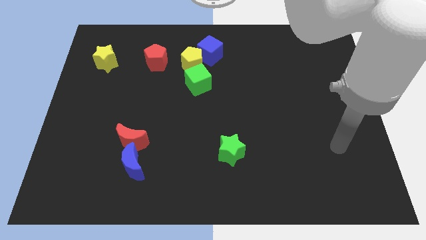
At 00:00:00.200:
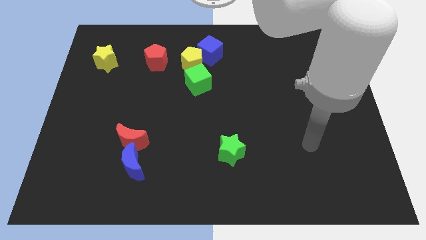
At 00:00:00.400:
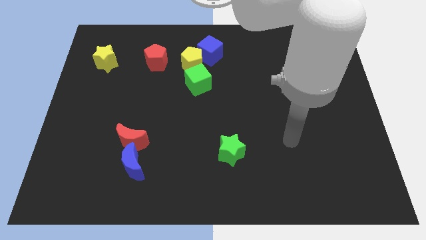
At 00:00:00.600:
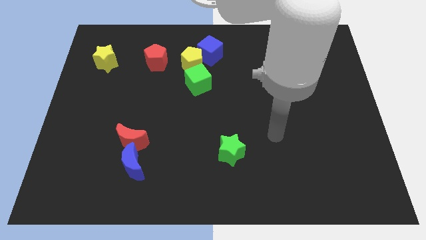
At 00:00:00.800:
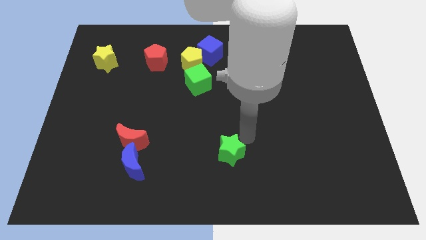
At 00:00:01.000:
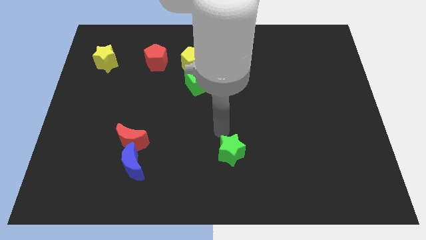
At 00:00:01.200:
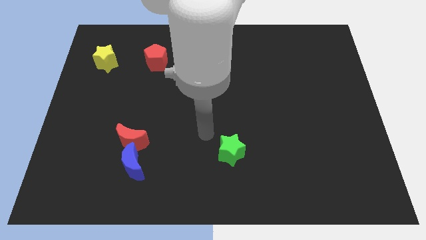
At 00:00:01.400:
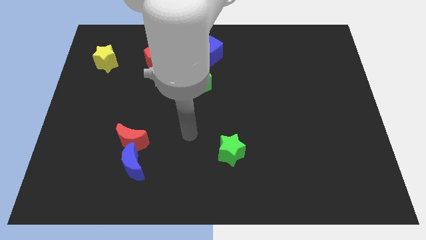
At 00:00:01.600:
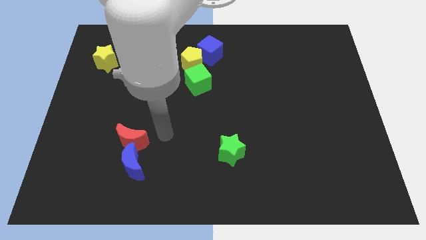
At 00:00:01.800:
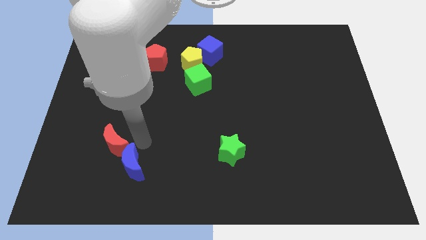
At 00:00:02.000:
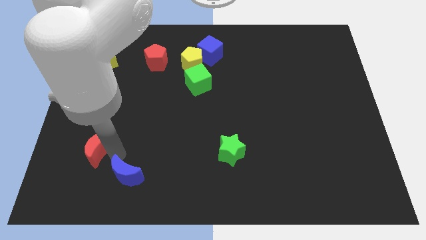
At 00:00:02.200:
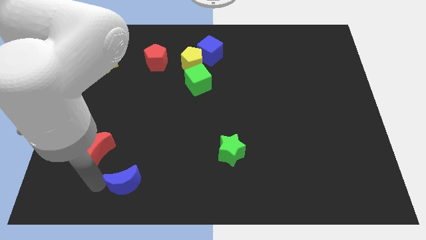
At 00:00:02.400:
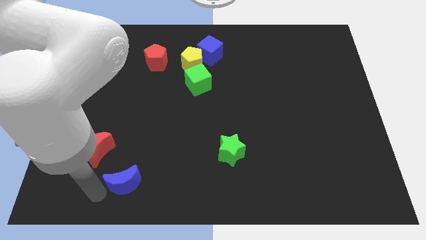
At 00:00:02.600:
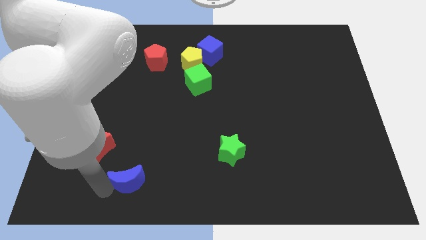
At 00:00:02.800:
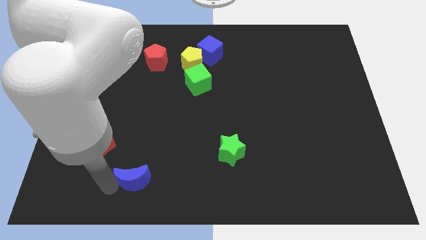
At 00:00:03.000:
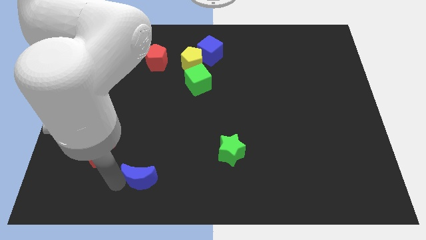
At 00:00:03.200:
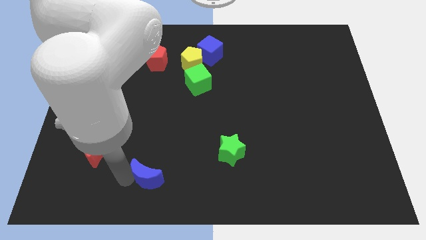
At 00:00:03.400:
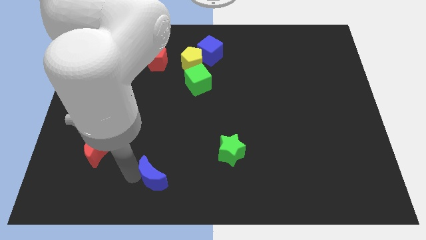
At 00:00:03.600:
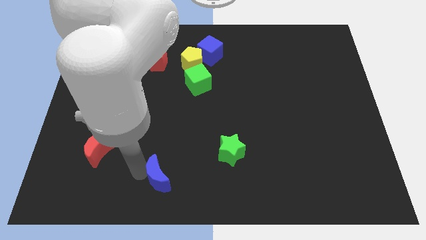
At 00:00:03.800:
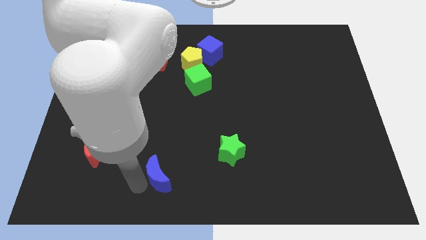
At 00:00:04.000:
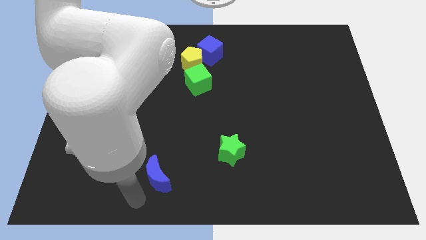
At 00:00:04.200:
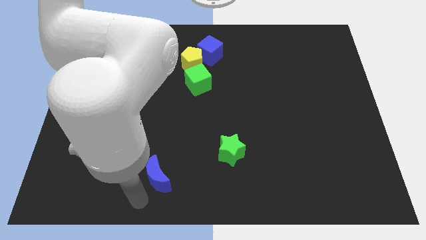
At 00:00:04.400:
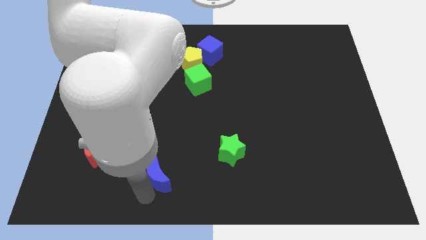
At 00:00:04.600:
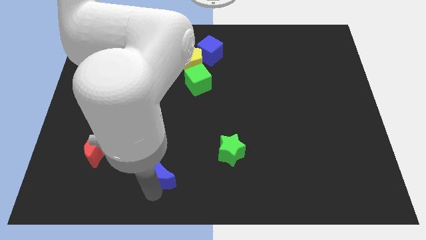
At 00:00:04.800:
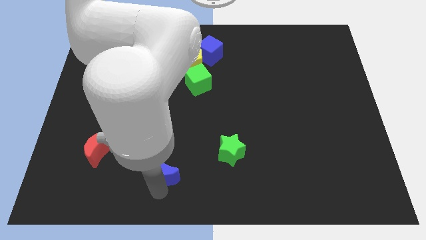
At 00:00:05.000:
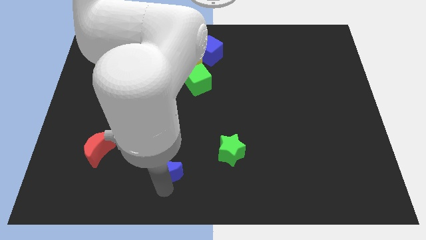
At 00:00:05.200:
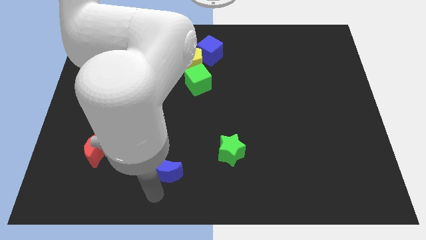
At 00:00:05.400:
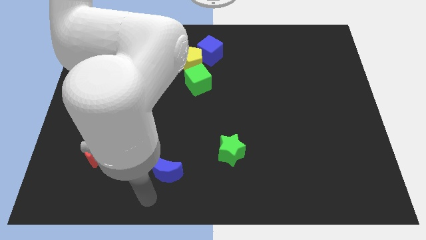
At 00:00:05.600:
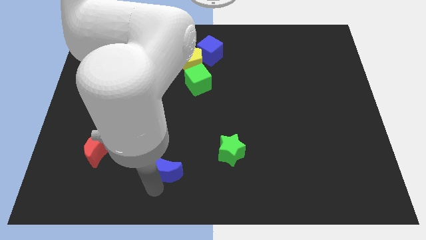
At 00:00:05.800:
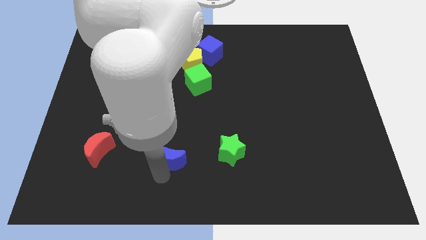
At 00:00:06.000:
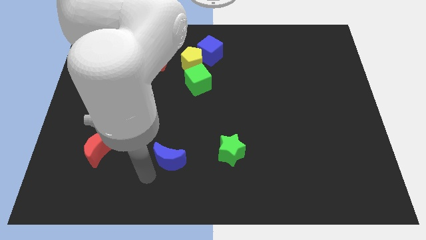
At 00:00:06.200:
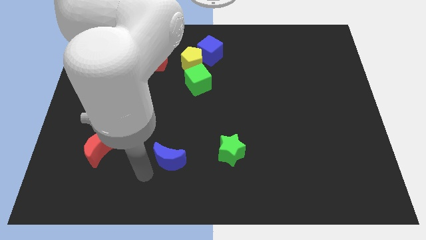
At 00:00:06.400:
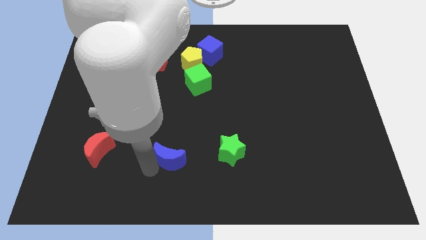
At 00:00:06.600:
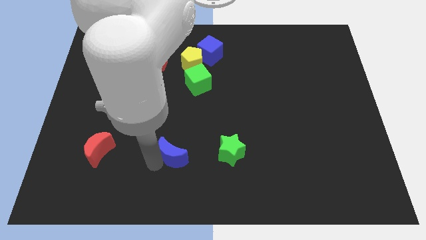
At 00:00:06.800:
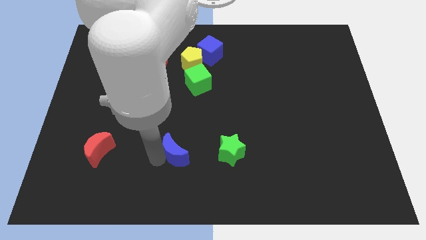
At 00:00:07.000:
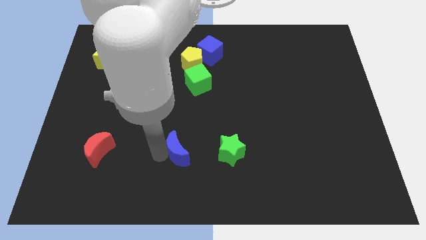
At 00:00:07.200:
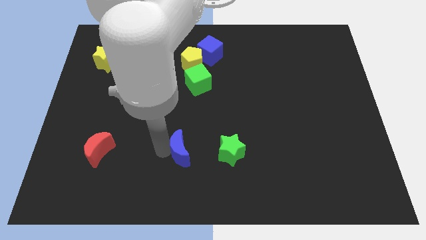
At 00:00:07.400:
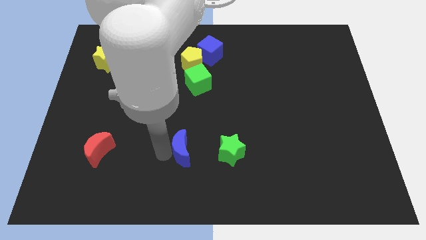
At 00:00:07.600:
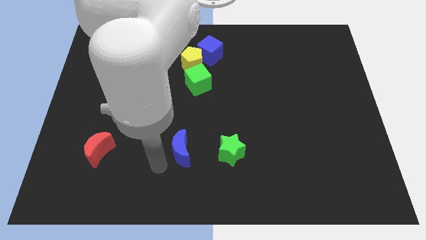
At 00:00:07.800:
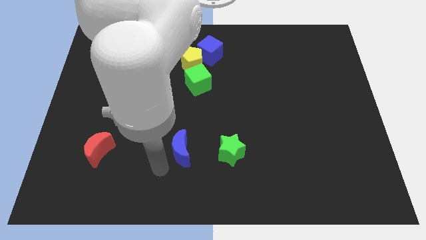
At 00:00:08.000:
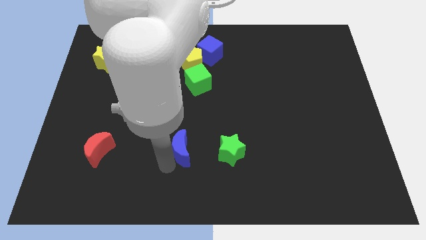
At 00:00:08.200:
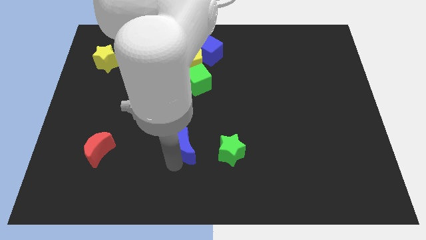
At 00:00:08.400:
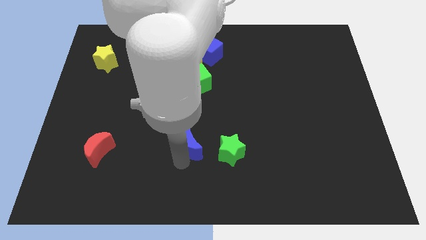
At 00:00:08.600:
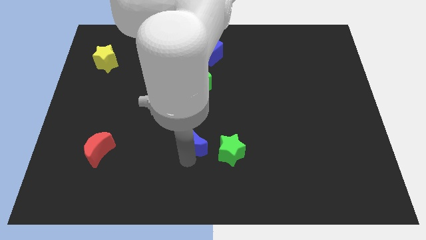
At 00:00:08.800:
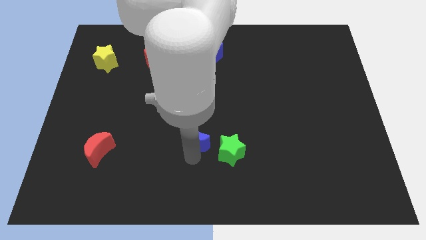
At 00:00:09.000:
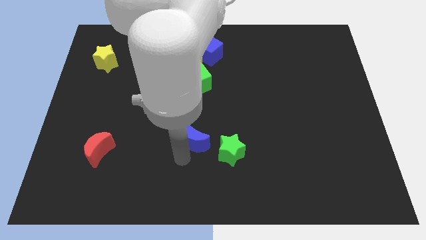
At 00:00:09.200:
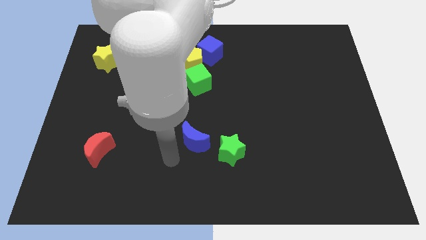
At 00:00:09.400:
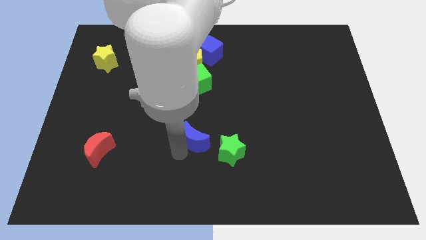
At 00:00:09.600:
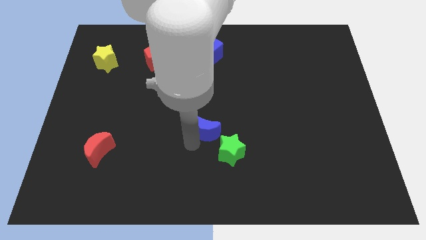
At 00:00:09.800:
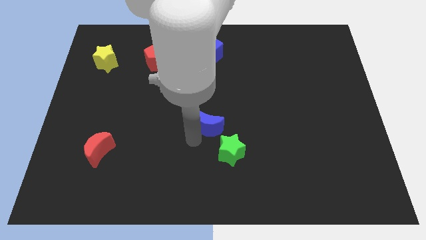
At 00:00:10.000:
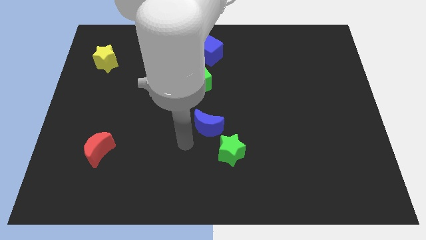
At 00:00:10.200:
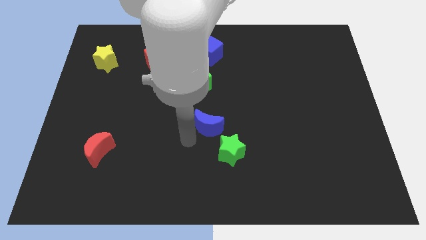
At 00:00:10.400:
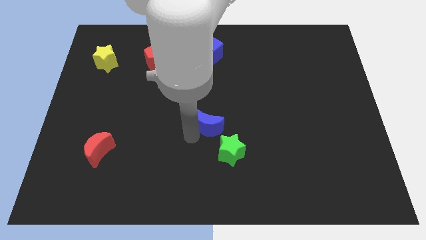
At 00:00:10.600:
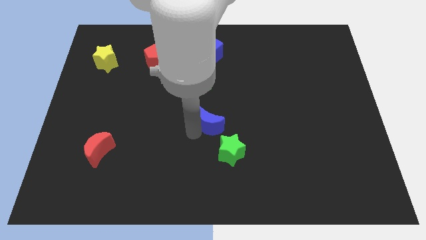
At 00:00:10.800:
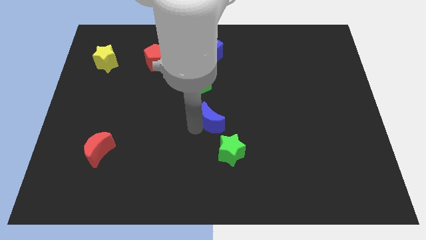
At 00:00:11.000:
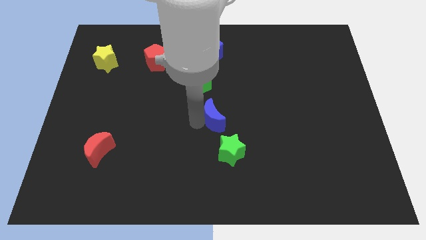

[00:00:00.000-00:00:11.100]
push the blue moon diagonally up and to the right

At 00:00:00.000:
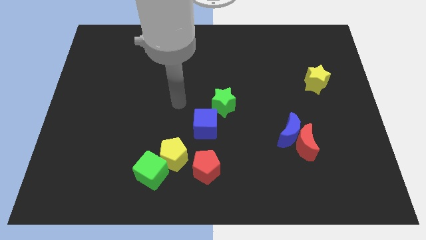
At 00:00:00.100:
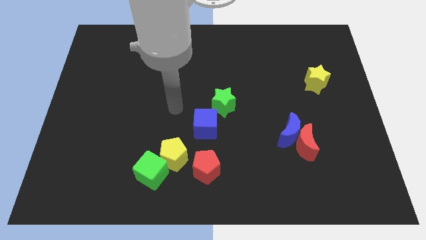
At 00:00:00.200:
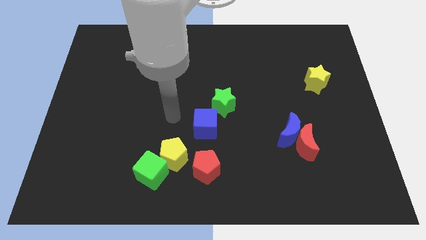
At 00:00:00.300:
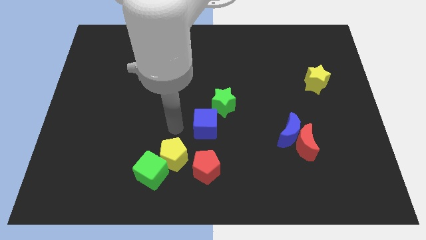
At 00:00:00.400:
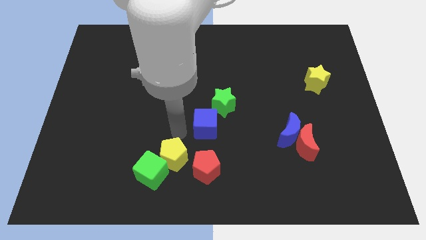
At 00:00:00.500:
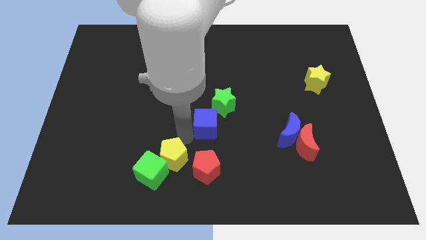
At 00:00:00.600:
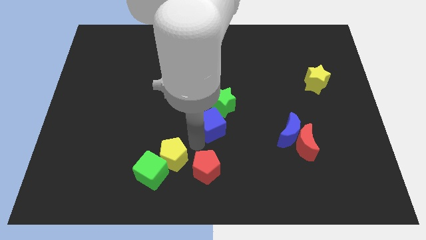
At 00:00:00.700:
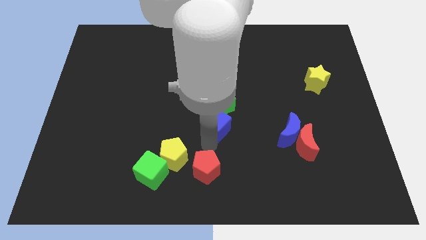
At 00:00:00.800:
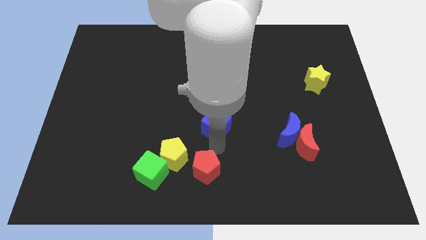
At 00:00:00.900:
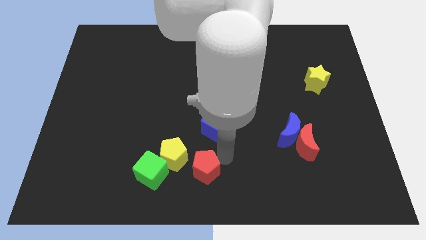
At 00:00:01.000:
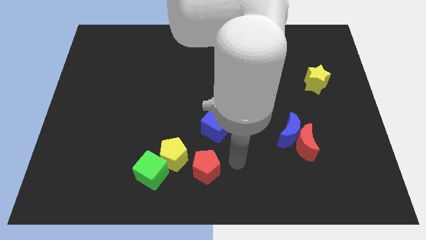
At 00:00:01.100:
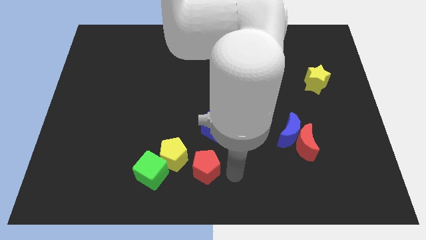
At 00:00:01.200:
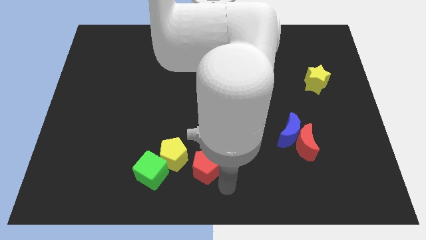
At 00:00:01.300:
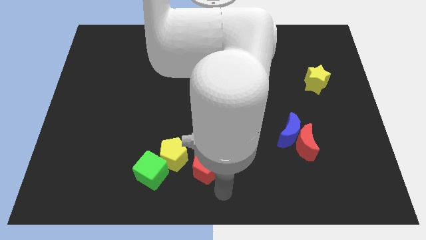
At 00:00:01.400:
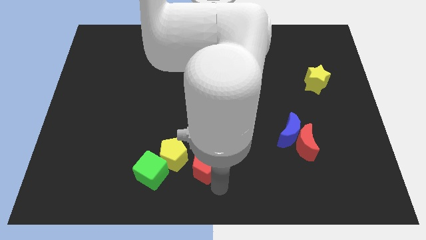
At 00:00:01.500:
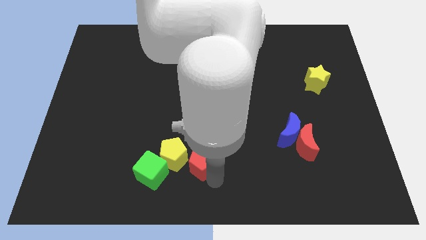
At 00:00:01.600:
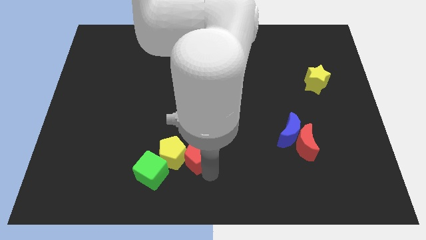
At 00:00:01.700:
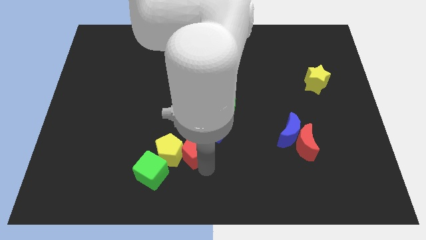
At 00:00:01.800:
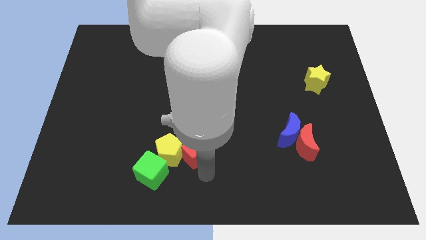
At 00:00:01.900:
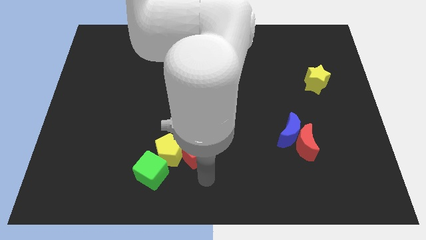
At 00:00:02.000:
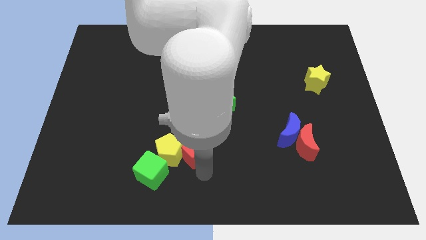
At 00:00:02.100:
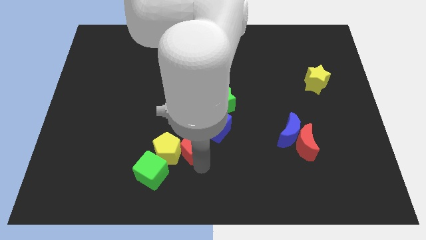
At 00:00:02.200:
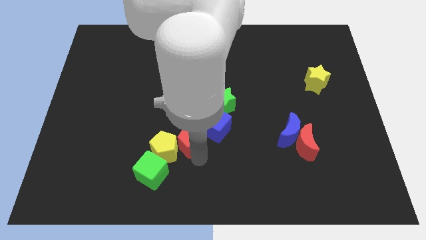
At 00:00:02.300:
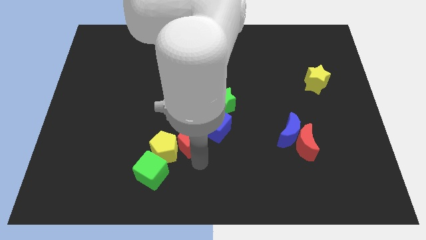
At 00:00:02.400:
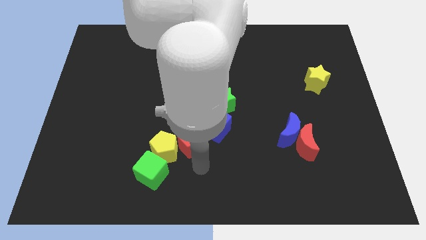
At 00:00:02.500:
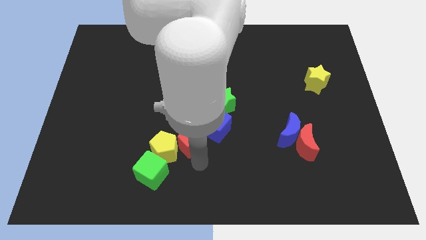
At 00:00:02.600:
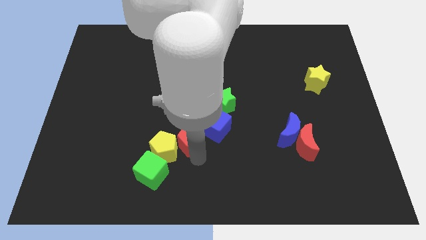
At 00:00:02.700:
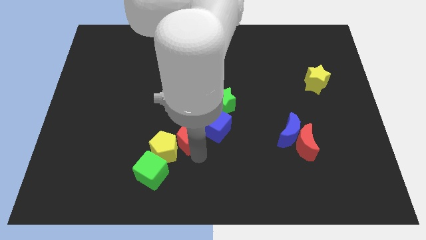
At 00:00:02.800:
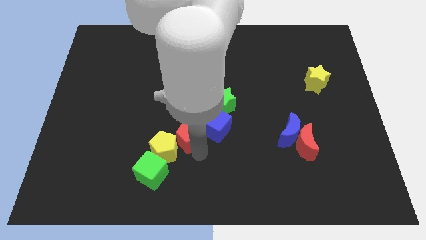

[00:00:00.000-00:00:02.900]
move the red pentagon slightly upwards
